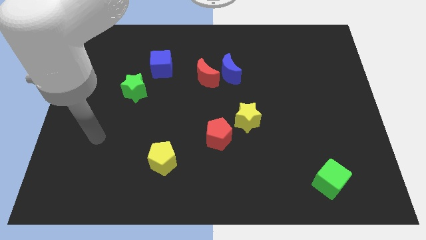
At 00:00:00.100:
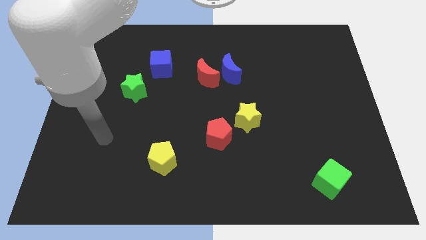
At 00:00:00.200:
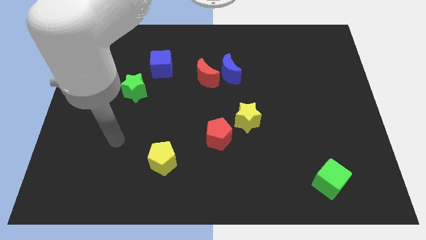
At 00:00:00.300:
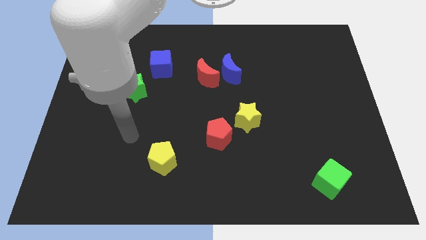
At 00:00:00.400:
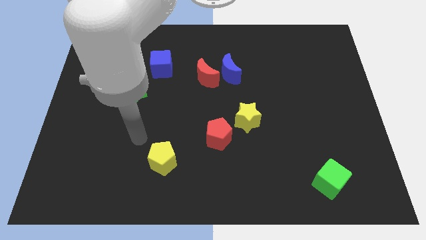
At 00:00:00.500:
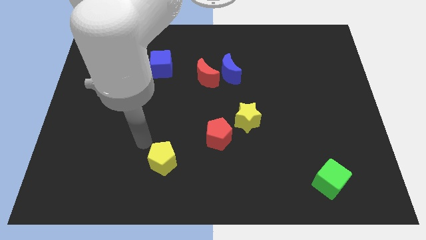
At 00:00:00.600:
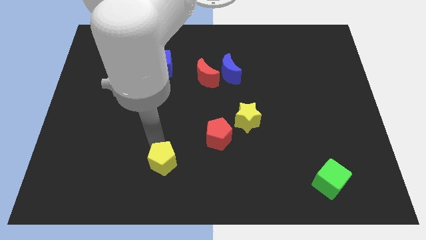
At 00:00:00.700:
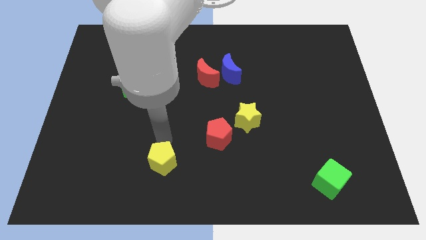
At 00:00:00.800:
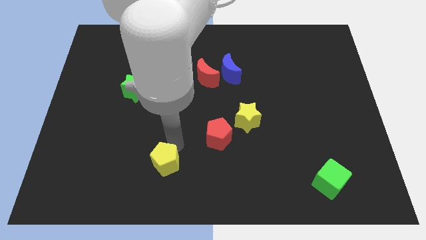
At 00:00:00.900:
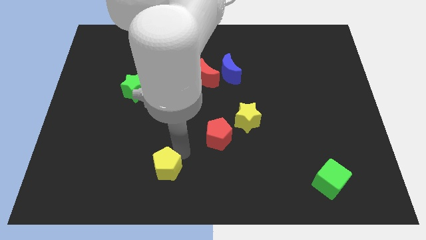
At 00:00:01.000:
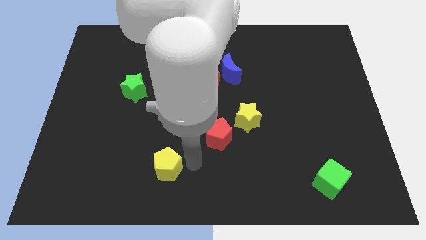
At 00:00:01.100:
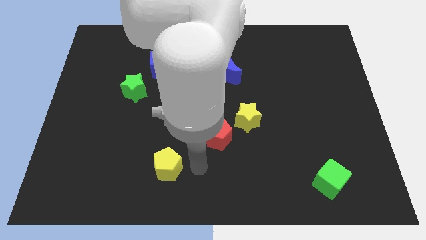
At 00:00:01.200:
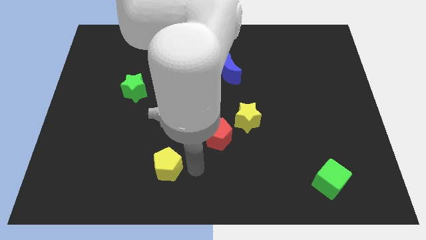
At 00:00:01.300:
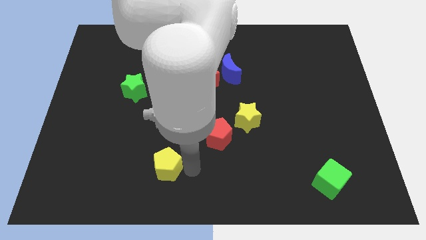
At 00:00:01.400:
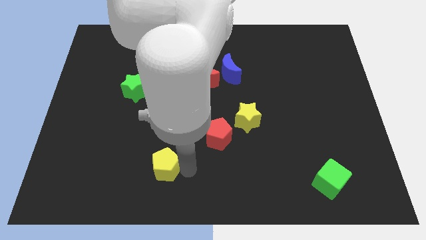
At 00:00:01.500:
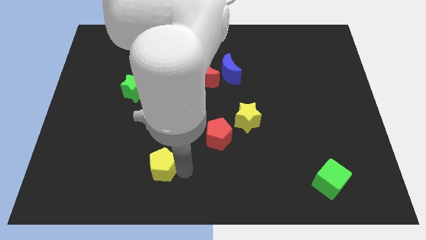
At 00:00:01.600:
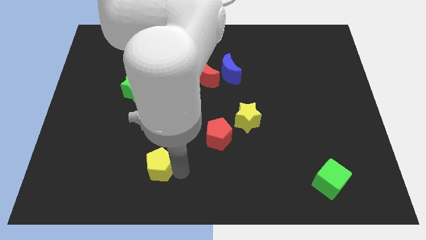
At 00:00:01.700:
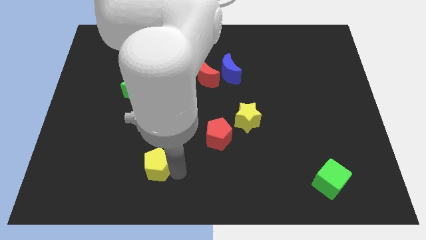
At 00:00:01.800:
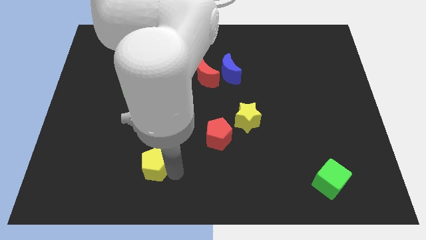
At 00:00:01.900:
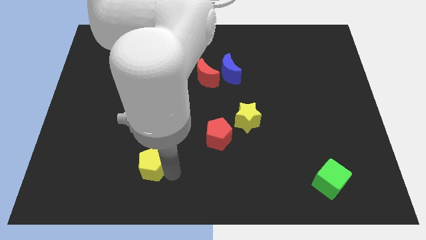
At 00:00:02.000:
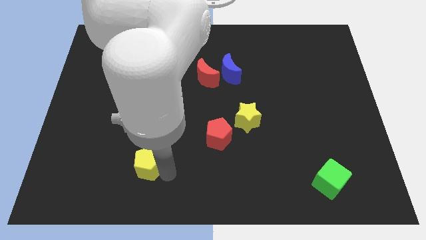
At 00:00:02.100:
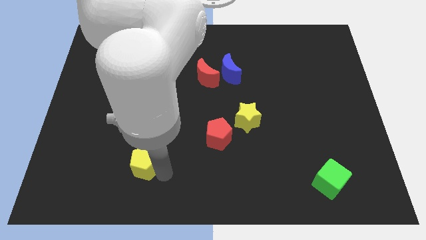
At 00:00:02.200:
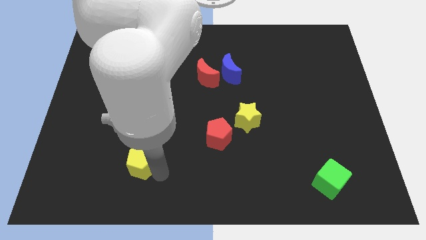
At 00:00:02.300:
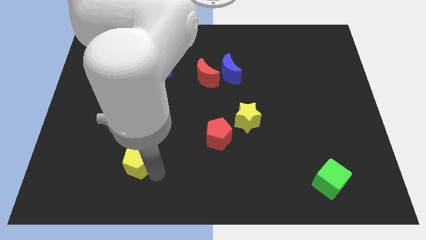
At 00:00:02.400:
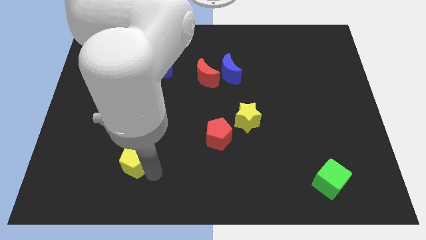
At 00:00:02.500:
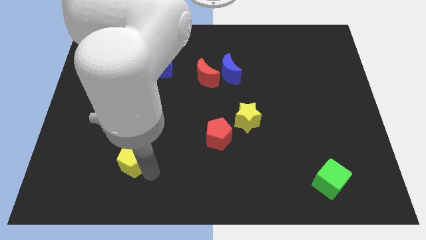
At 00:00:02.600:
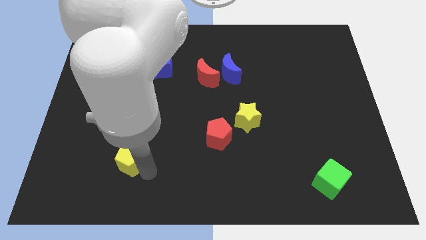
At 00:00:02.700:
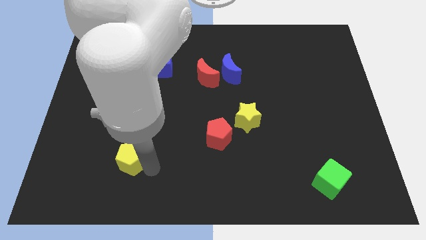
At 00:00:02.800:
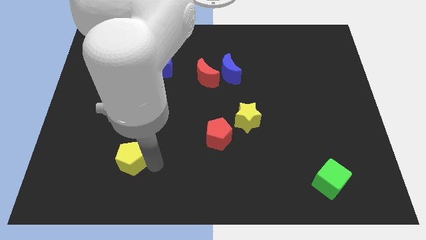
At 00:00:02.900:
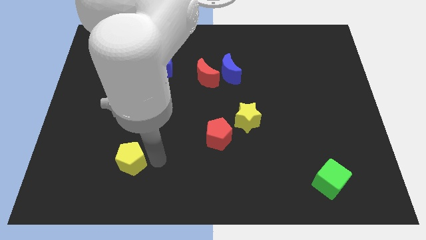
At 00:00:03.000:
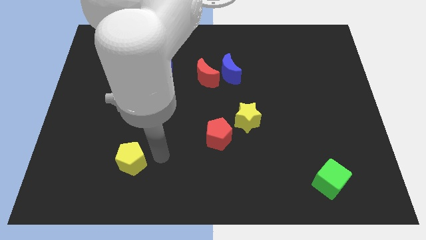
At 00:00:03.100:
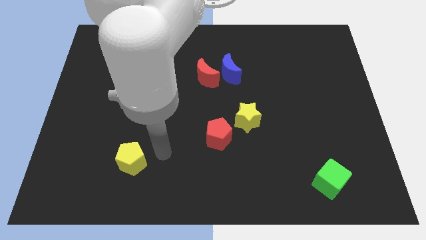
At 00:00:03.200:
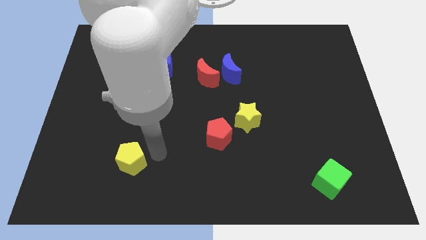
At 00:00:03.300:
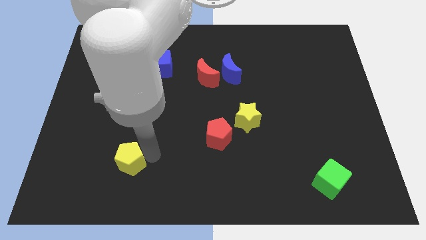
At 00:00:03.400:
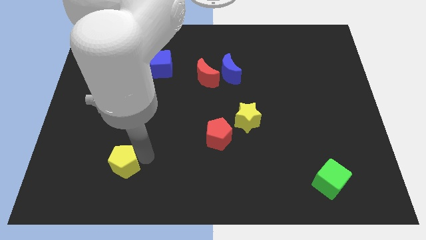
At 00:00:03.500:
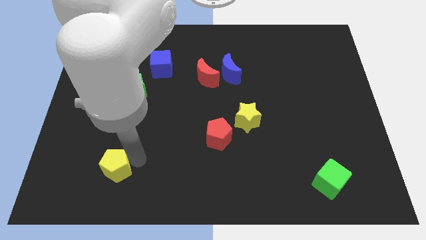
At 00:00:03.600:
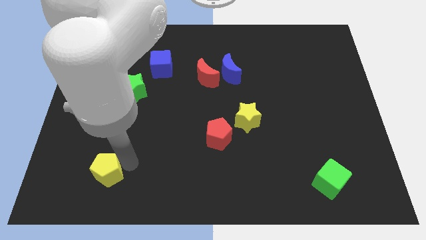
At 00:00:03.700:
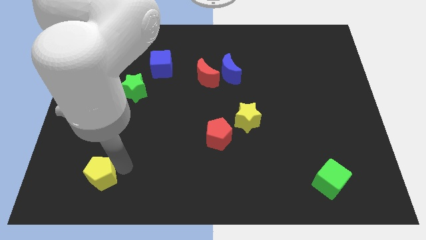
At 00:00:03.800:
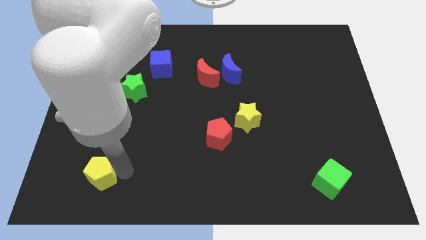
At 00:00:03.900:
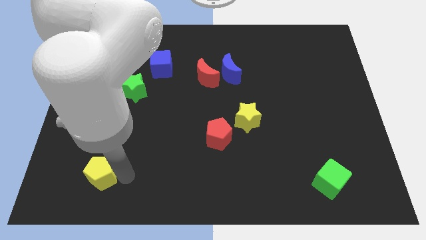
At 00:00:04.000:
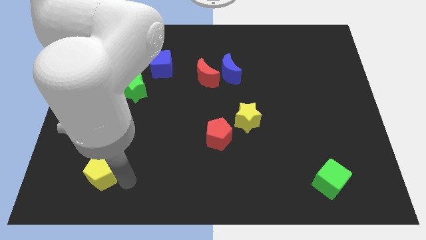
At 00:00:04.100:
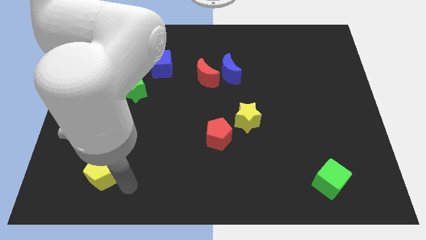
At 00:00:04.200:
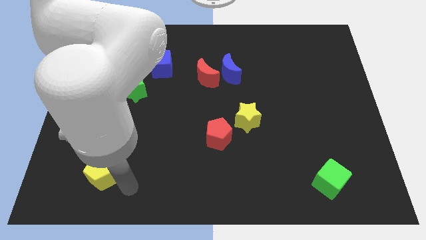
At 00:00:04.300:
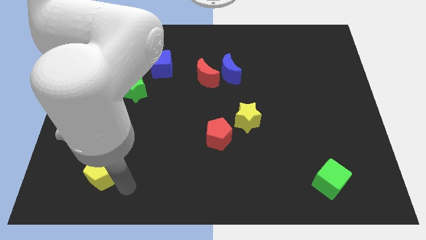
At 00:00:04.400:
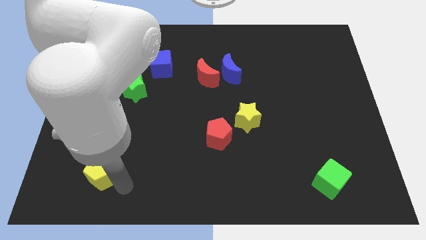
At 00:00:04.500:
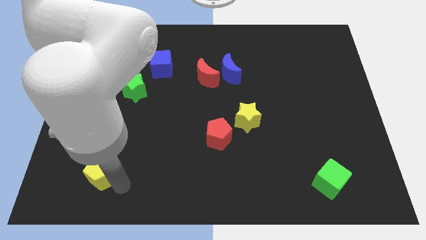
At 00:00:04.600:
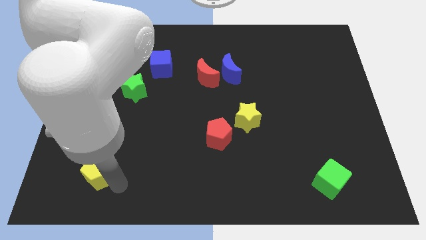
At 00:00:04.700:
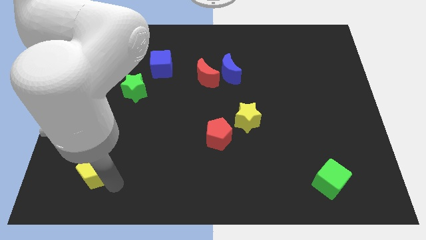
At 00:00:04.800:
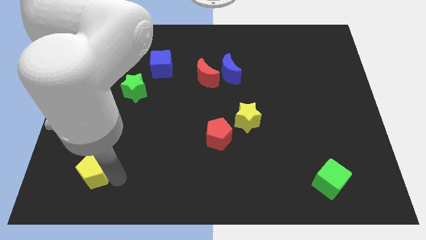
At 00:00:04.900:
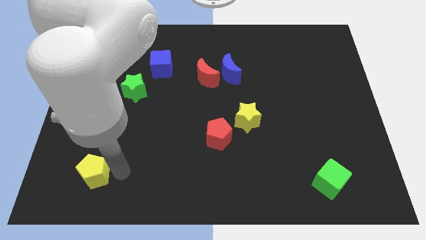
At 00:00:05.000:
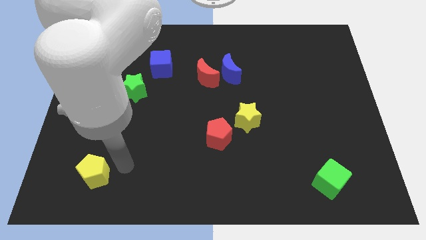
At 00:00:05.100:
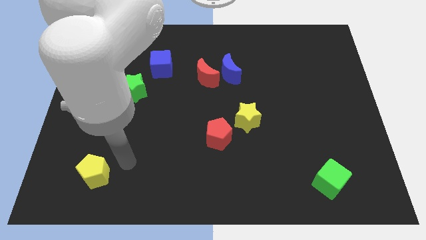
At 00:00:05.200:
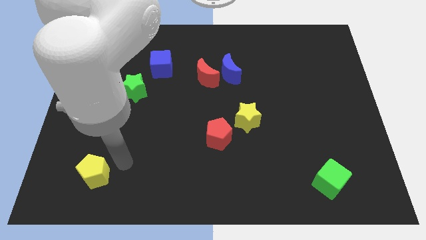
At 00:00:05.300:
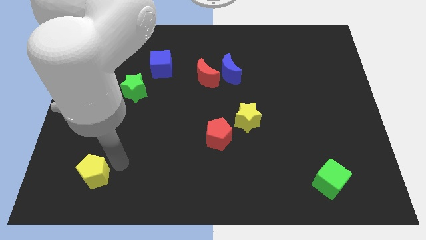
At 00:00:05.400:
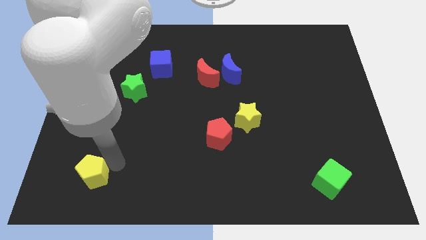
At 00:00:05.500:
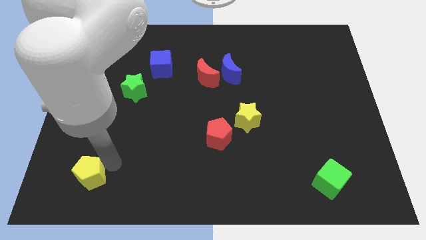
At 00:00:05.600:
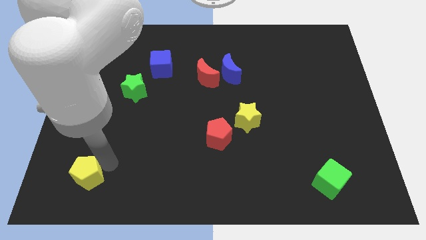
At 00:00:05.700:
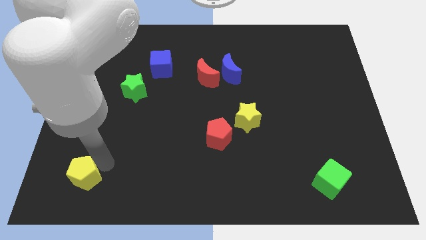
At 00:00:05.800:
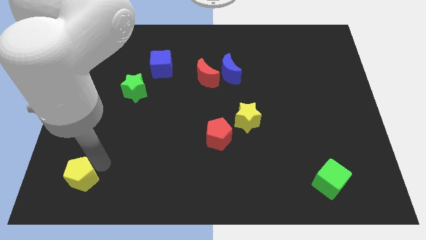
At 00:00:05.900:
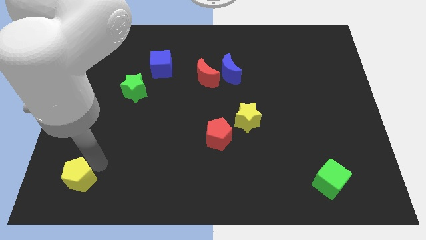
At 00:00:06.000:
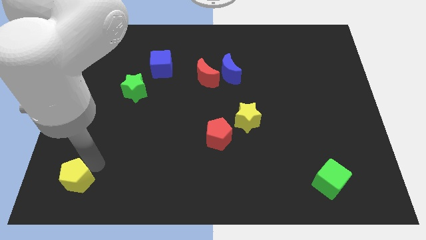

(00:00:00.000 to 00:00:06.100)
put the yellow pentagon to the bottom left
